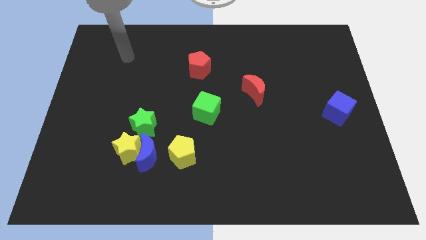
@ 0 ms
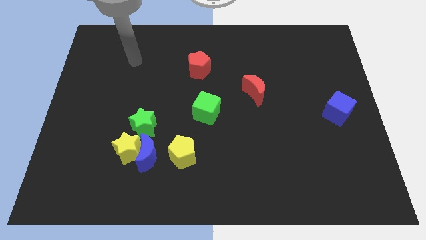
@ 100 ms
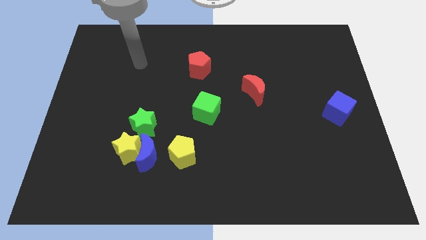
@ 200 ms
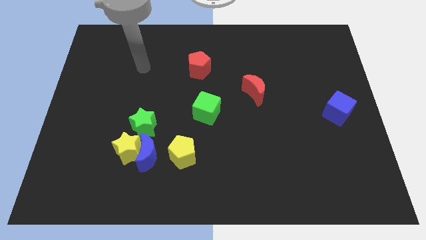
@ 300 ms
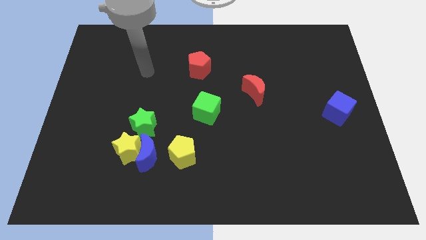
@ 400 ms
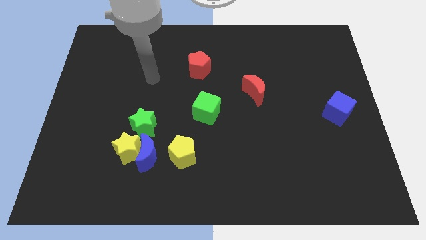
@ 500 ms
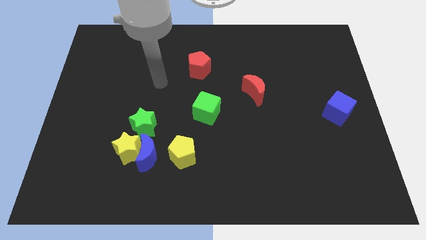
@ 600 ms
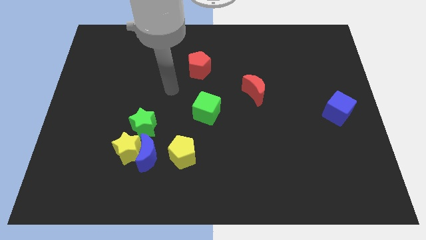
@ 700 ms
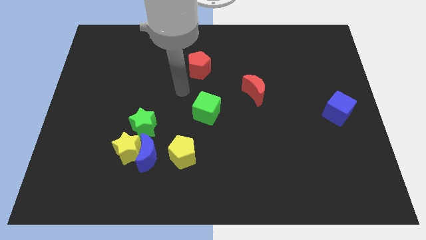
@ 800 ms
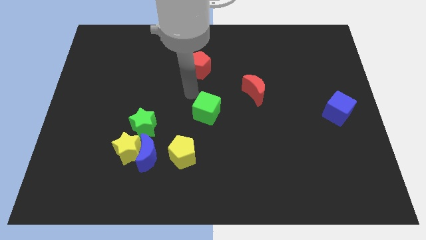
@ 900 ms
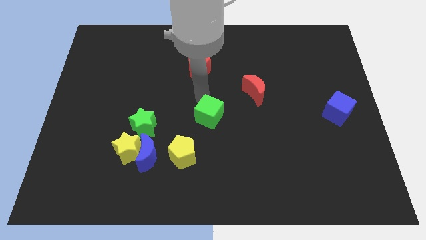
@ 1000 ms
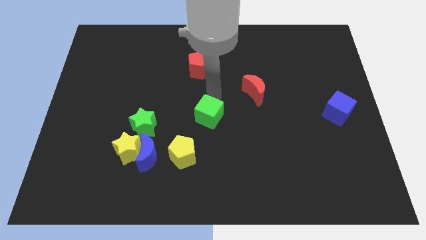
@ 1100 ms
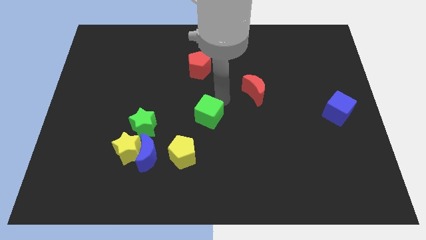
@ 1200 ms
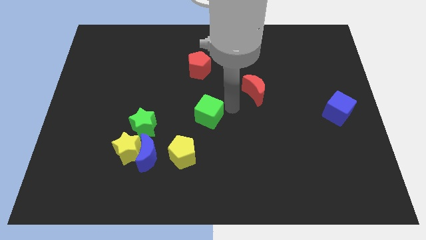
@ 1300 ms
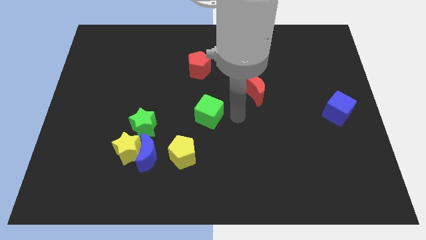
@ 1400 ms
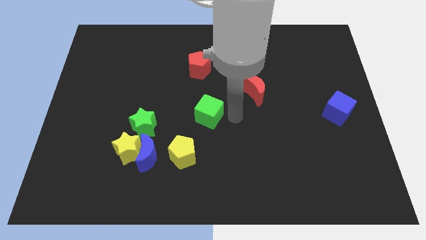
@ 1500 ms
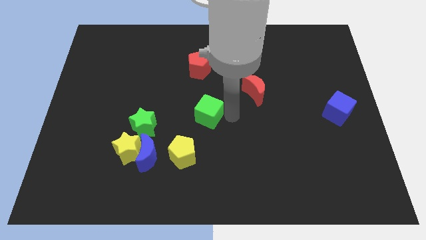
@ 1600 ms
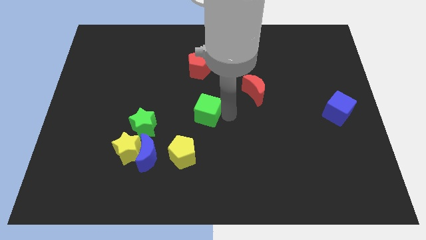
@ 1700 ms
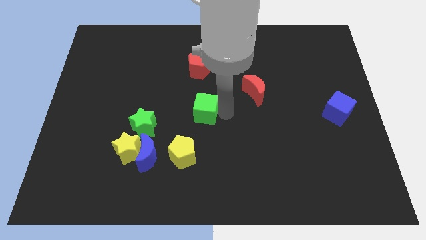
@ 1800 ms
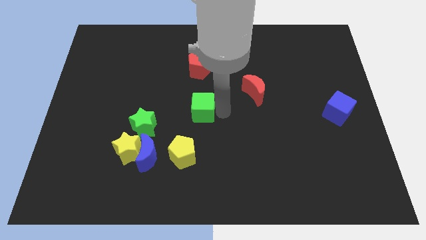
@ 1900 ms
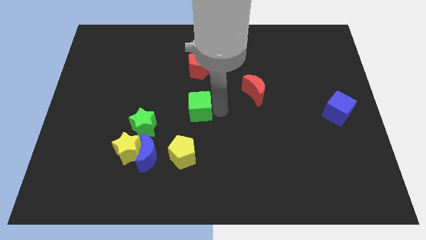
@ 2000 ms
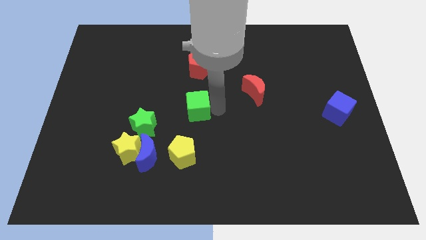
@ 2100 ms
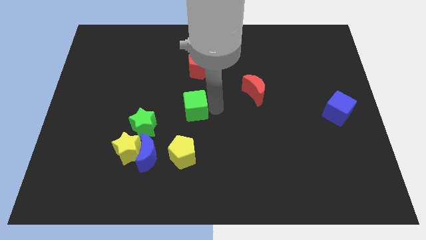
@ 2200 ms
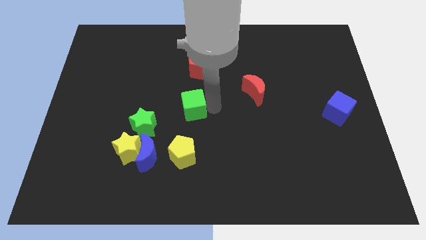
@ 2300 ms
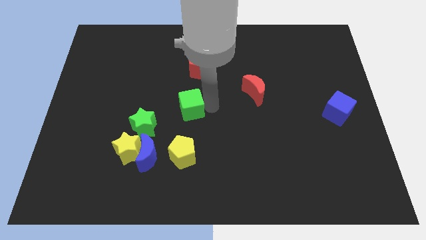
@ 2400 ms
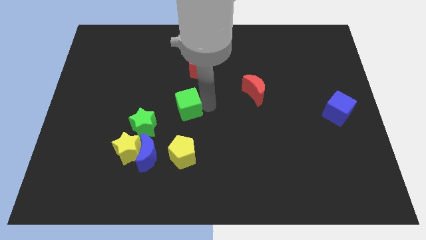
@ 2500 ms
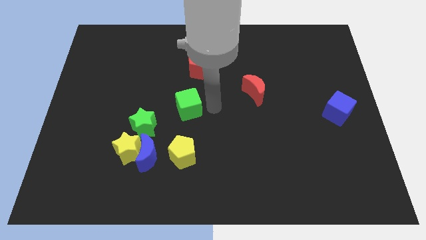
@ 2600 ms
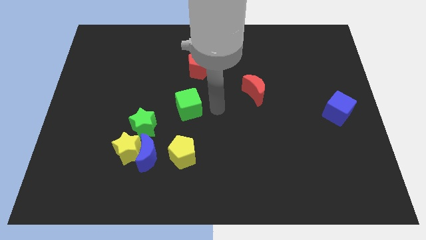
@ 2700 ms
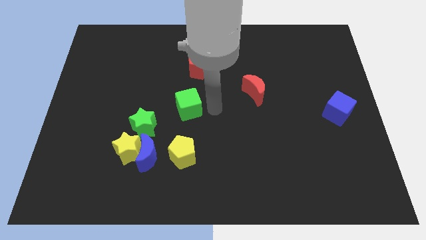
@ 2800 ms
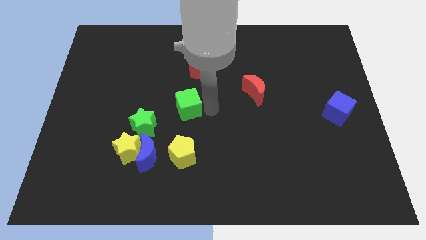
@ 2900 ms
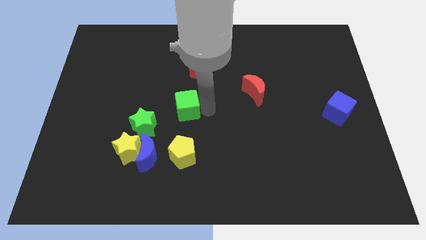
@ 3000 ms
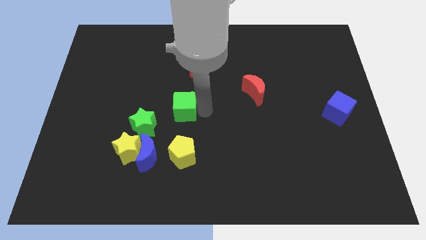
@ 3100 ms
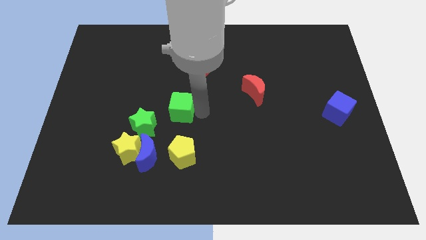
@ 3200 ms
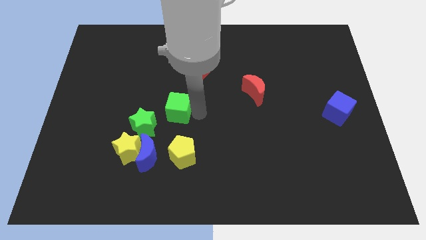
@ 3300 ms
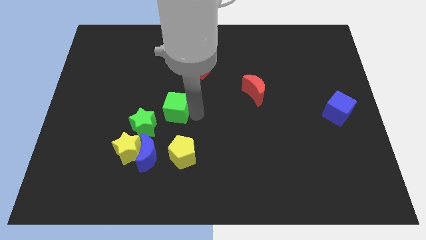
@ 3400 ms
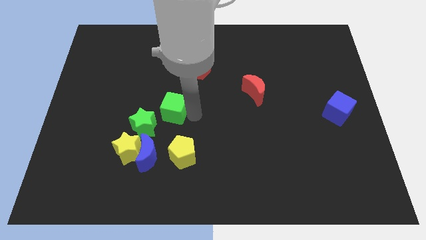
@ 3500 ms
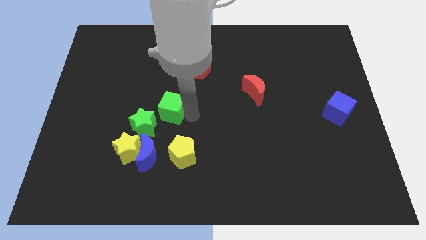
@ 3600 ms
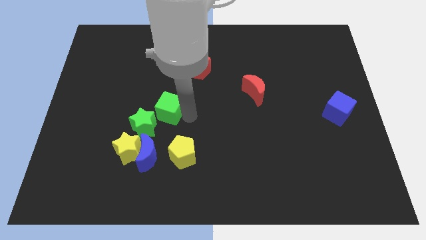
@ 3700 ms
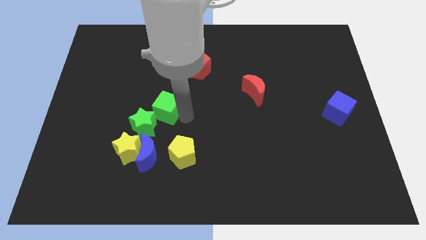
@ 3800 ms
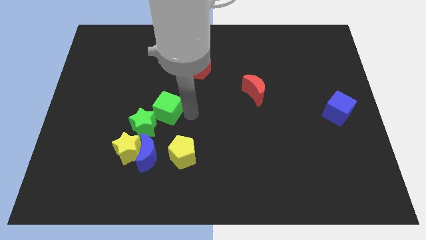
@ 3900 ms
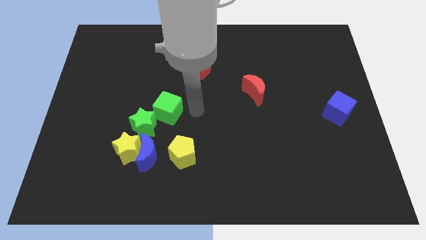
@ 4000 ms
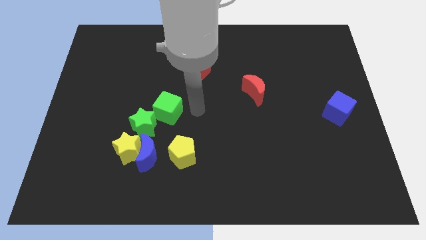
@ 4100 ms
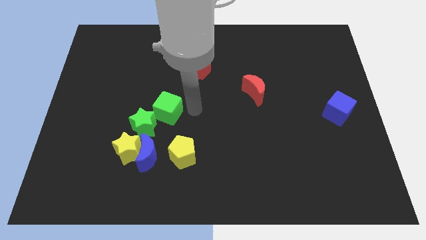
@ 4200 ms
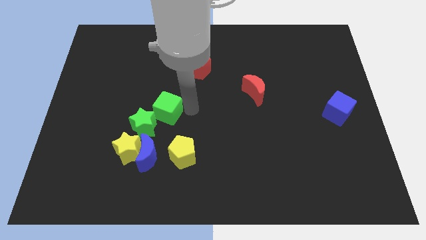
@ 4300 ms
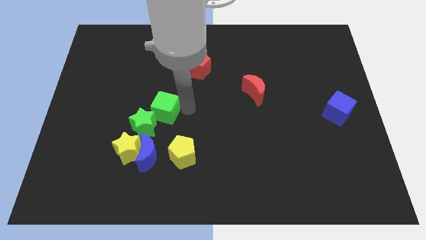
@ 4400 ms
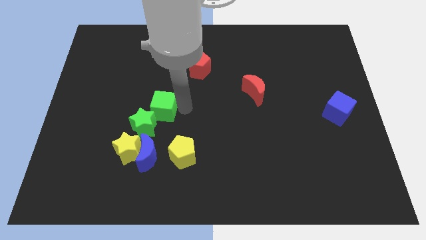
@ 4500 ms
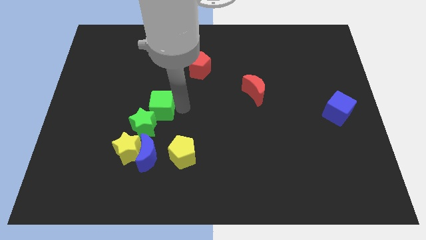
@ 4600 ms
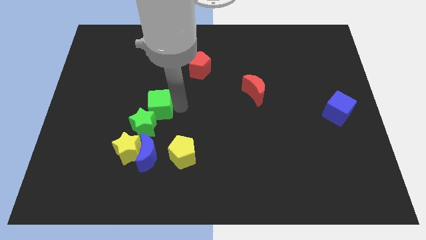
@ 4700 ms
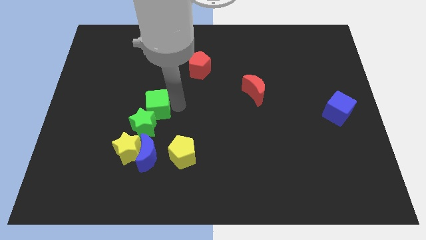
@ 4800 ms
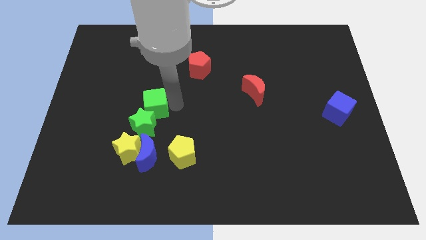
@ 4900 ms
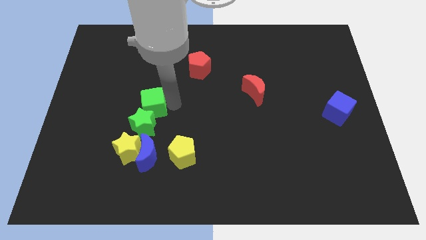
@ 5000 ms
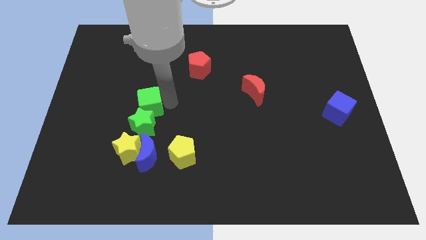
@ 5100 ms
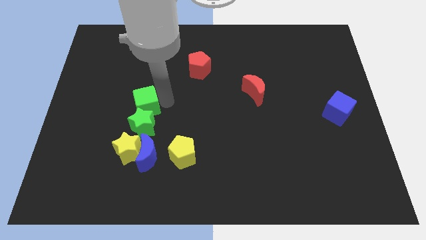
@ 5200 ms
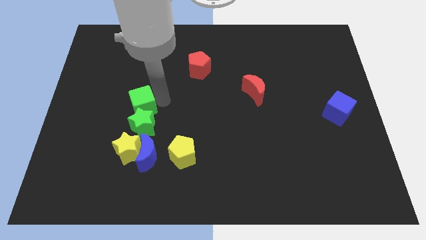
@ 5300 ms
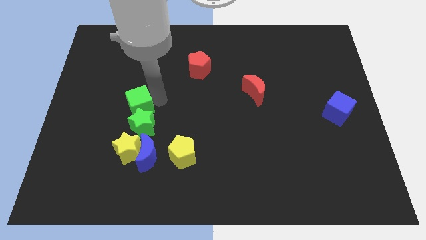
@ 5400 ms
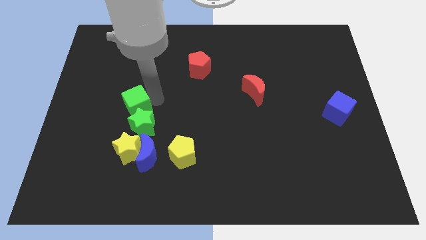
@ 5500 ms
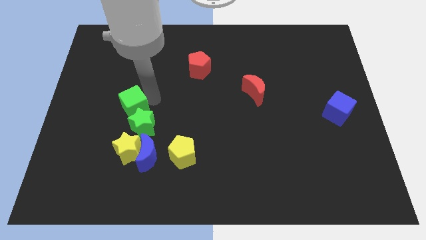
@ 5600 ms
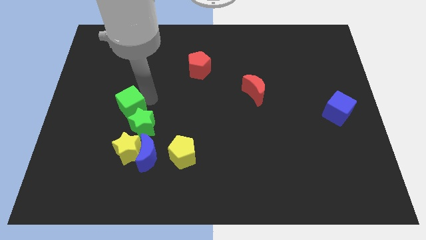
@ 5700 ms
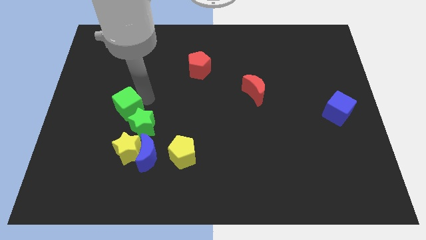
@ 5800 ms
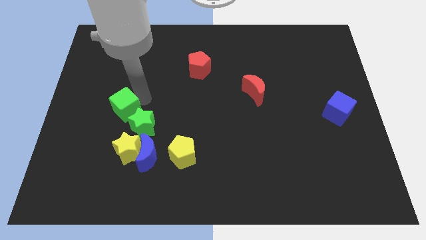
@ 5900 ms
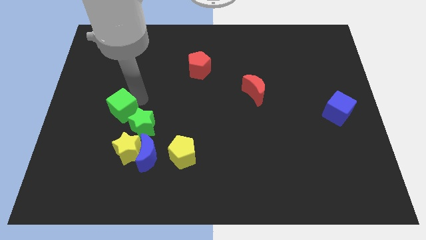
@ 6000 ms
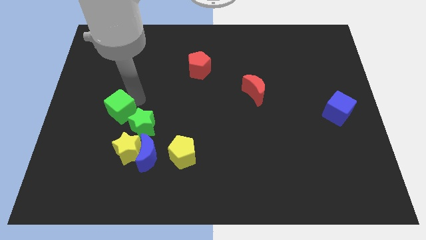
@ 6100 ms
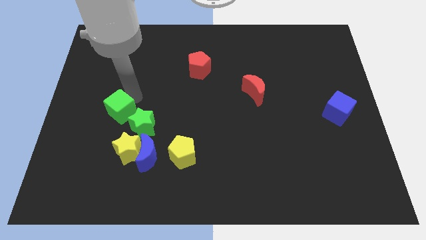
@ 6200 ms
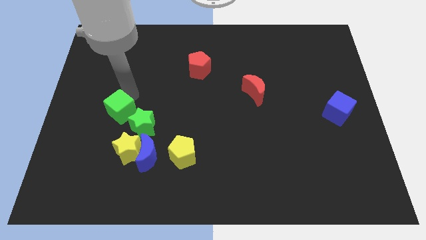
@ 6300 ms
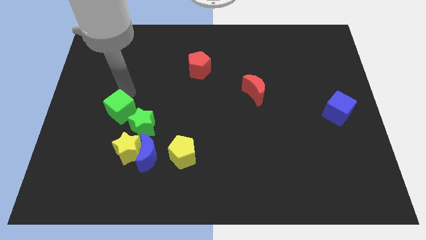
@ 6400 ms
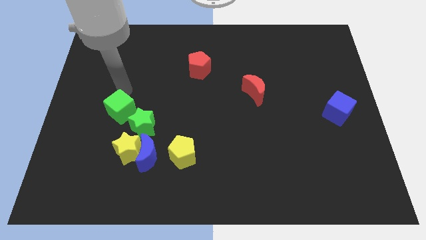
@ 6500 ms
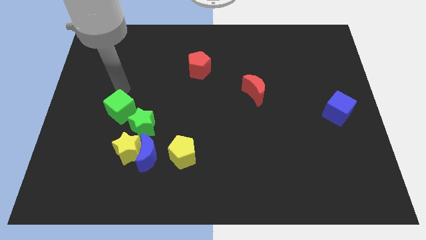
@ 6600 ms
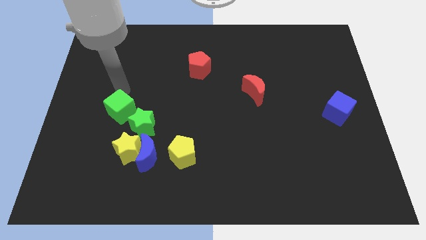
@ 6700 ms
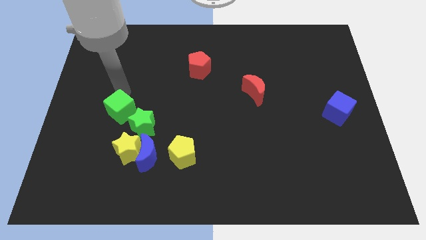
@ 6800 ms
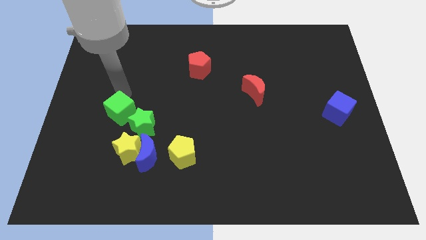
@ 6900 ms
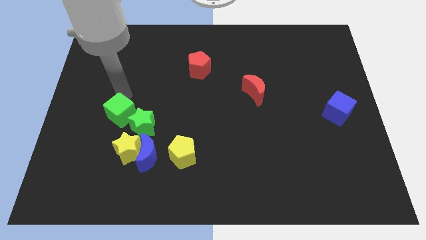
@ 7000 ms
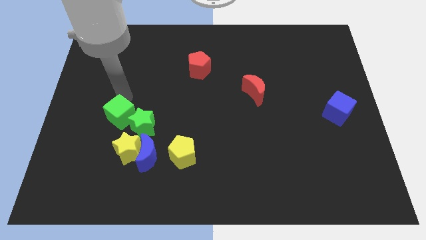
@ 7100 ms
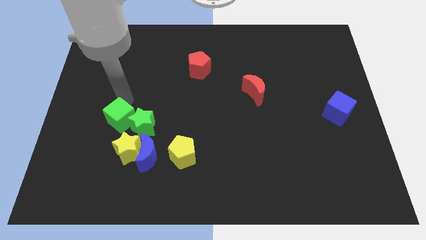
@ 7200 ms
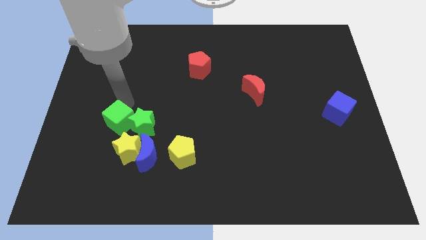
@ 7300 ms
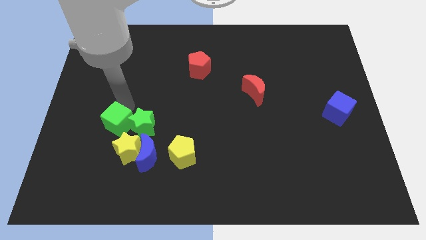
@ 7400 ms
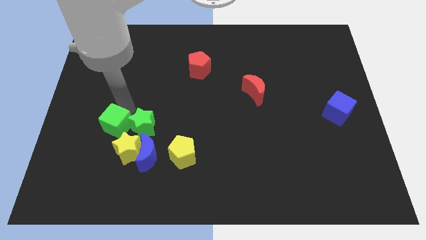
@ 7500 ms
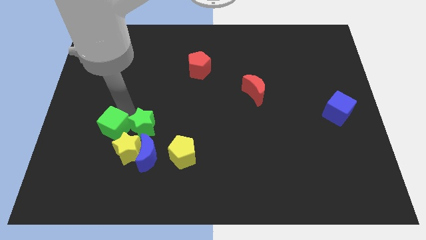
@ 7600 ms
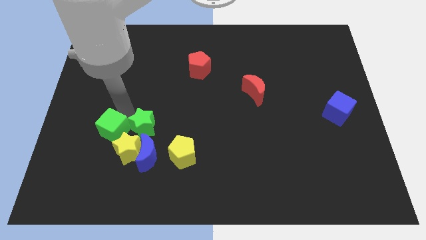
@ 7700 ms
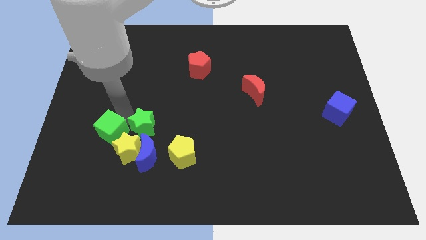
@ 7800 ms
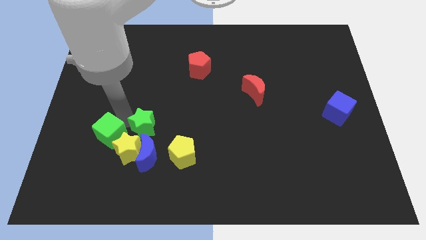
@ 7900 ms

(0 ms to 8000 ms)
put the green cube towards the yellow star
